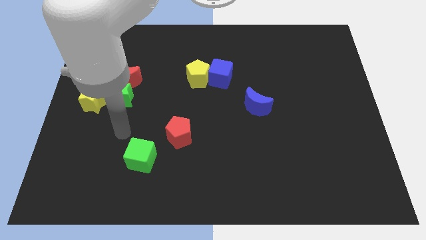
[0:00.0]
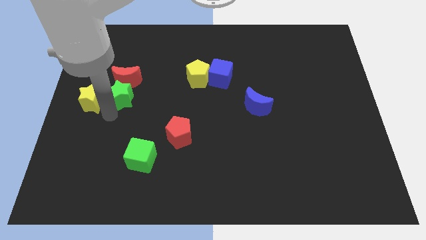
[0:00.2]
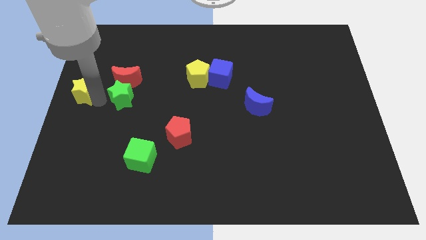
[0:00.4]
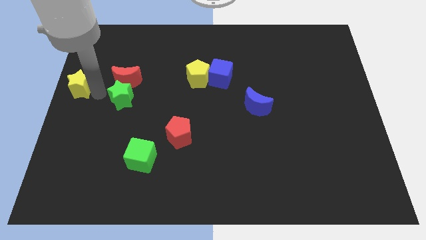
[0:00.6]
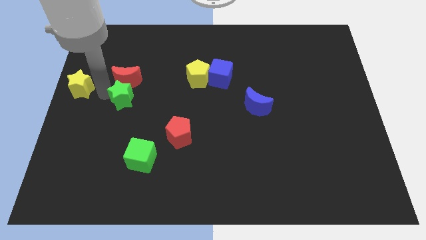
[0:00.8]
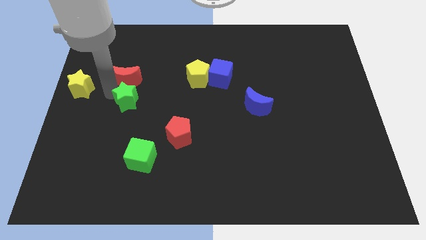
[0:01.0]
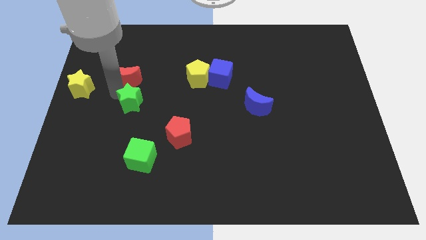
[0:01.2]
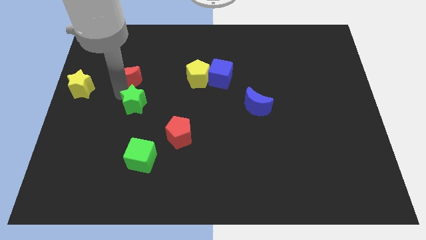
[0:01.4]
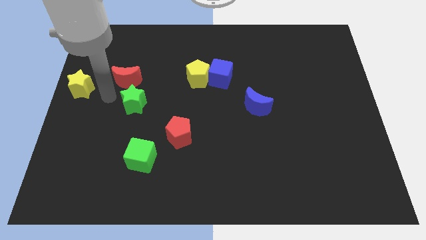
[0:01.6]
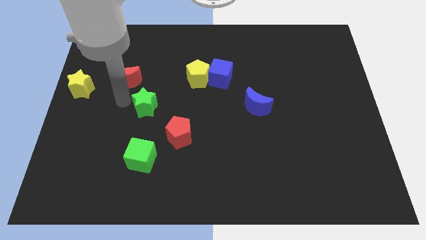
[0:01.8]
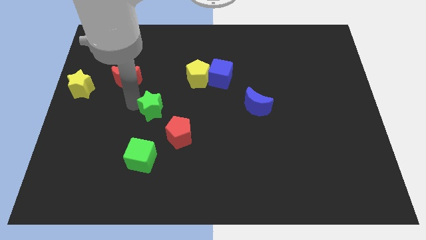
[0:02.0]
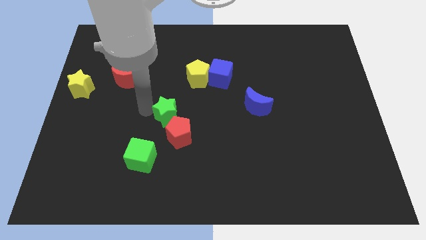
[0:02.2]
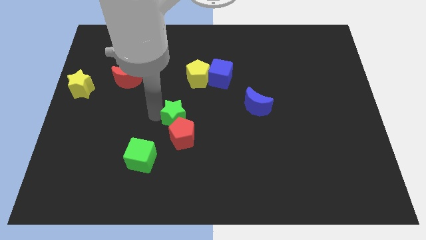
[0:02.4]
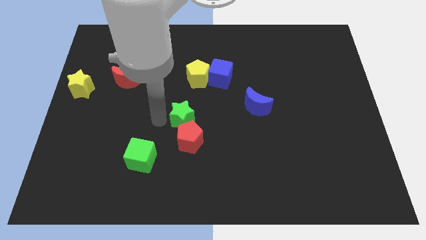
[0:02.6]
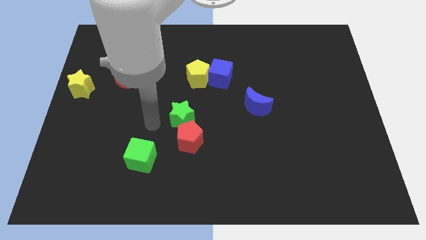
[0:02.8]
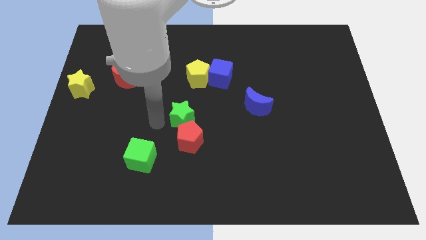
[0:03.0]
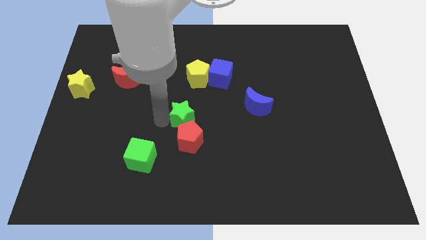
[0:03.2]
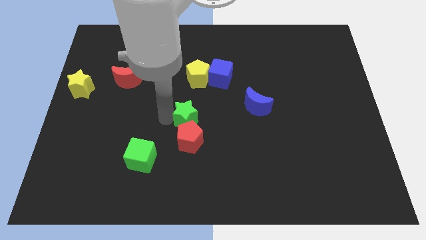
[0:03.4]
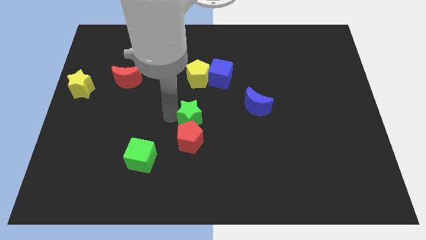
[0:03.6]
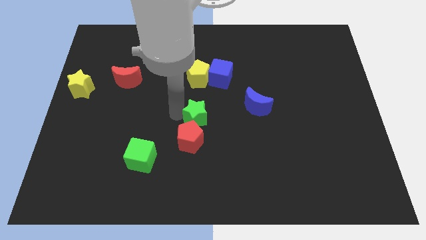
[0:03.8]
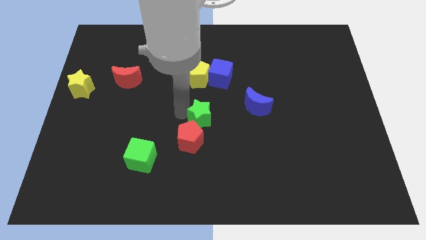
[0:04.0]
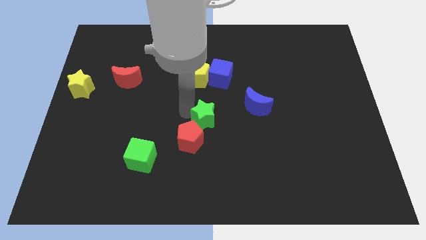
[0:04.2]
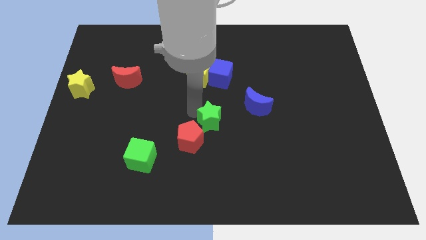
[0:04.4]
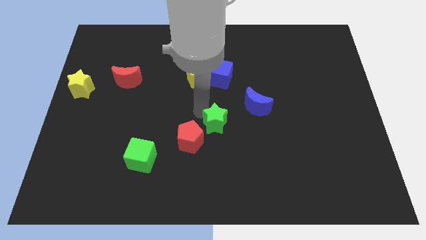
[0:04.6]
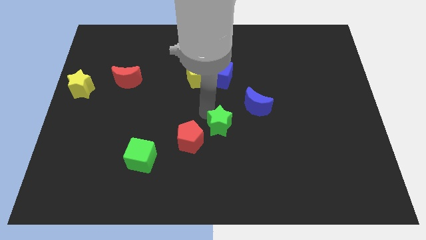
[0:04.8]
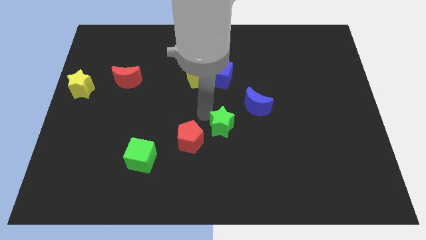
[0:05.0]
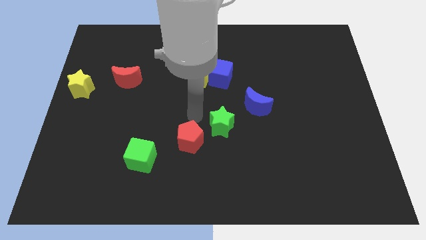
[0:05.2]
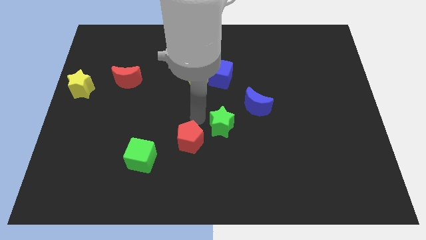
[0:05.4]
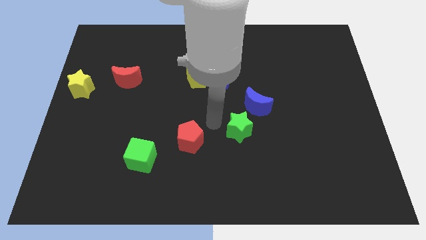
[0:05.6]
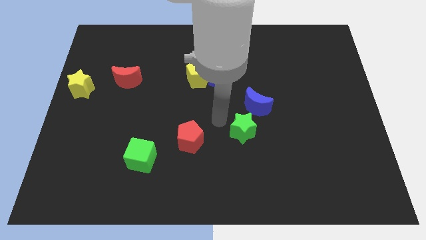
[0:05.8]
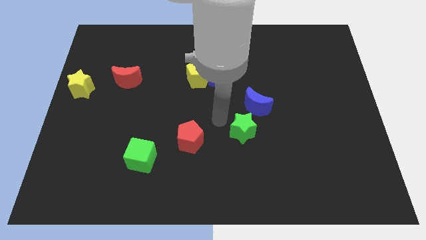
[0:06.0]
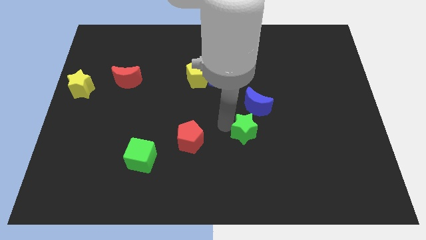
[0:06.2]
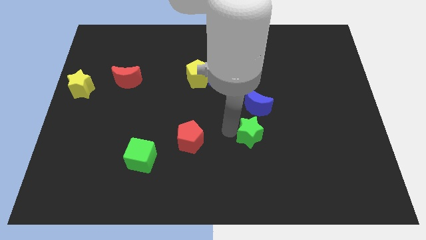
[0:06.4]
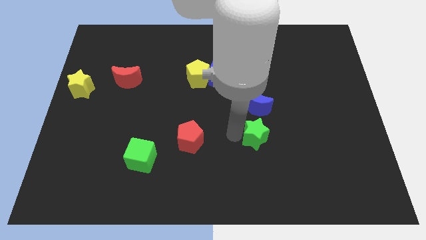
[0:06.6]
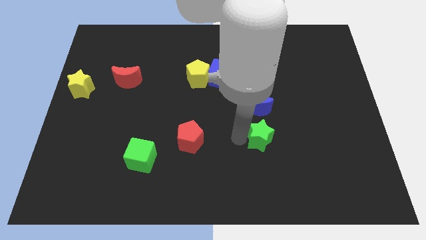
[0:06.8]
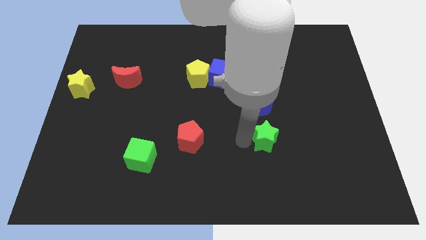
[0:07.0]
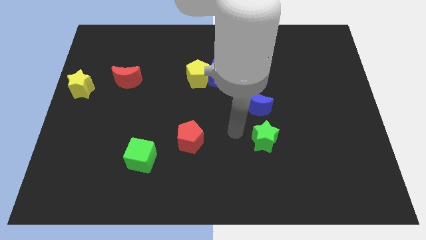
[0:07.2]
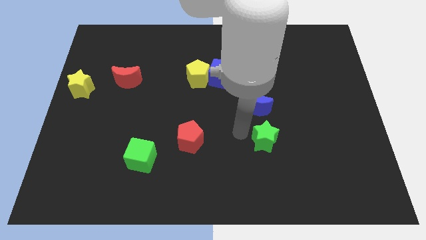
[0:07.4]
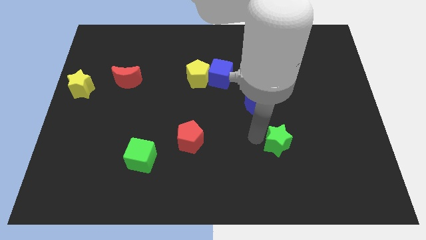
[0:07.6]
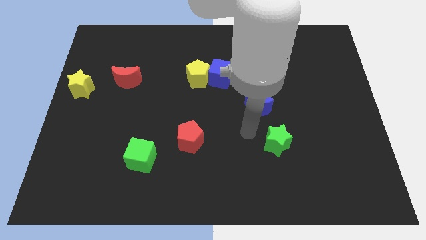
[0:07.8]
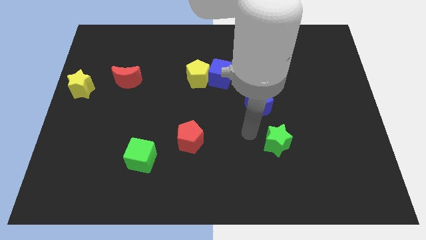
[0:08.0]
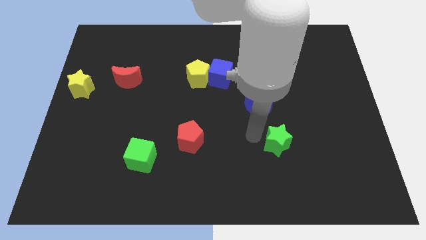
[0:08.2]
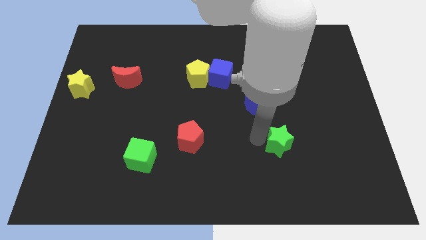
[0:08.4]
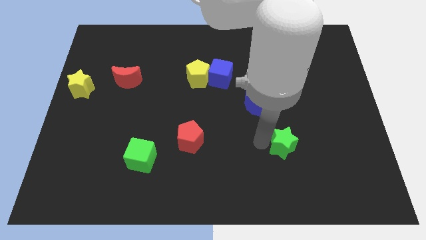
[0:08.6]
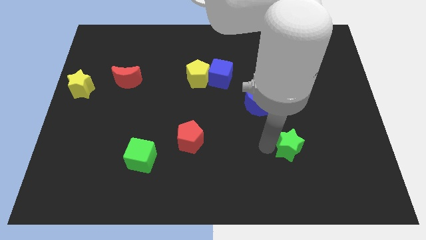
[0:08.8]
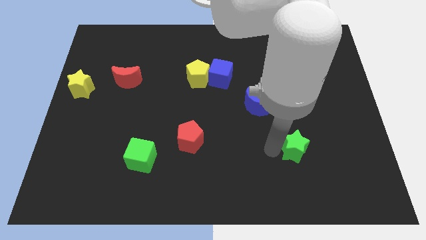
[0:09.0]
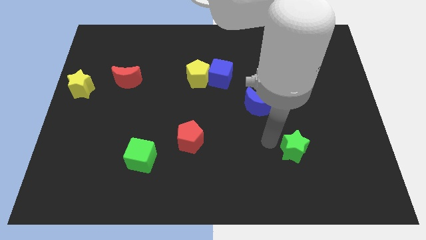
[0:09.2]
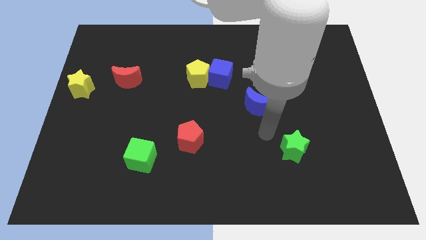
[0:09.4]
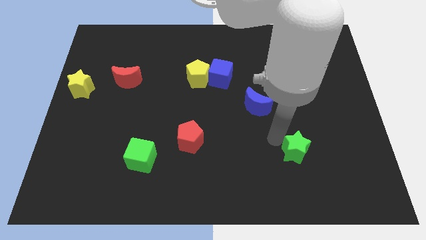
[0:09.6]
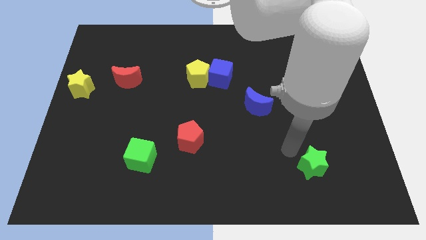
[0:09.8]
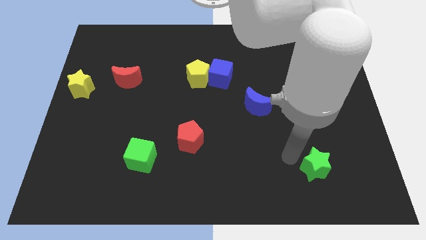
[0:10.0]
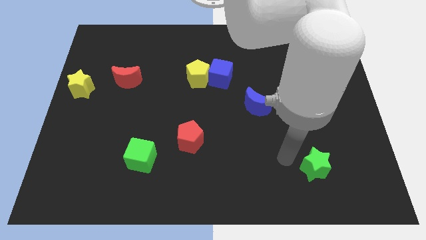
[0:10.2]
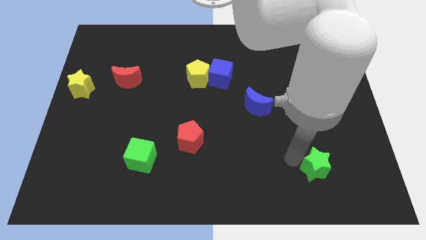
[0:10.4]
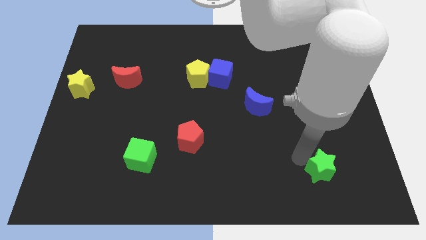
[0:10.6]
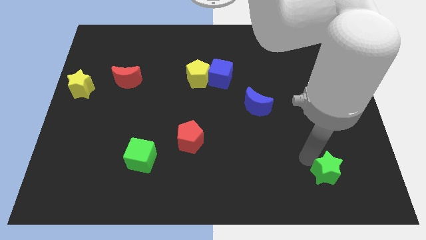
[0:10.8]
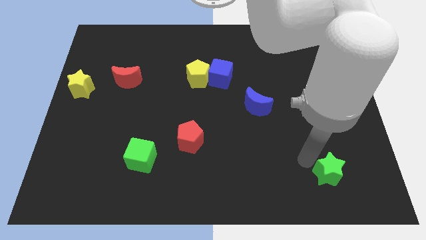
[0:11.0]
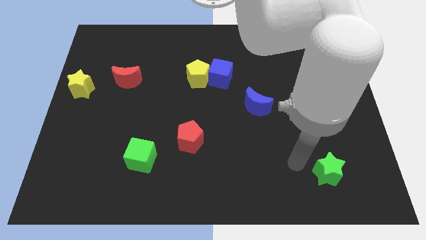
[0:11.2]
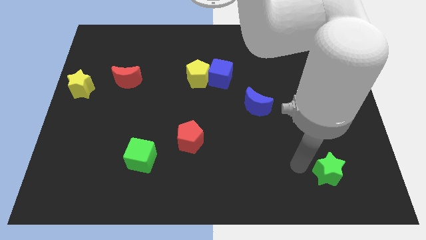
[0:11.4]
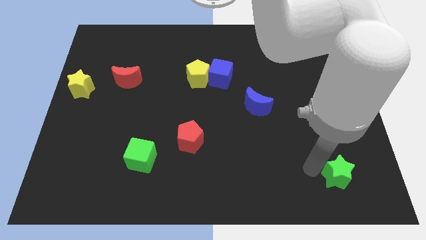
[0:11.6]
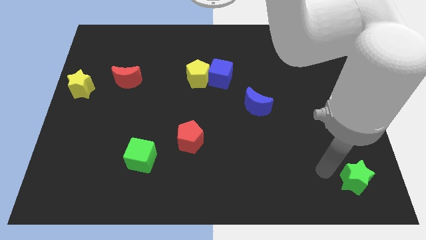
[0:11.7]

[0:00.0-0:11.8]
push the green star to the bottom right
